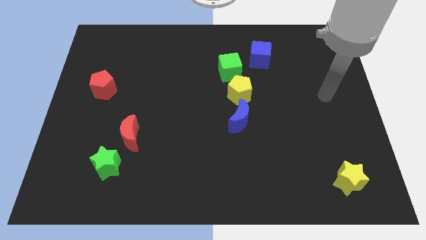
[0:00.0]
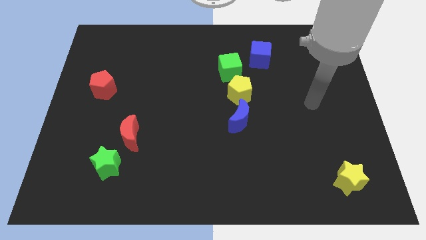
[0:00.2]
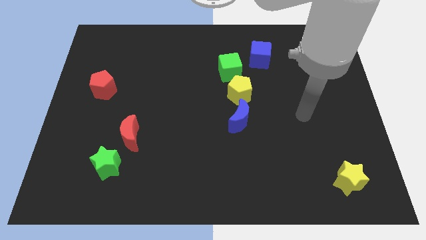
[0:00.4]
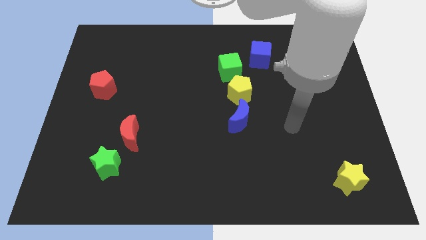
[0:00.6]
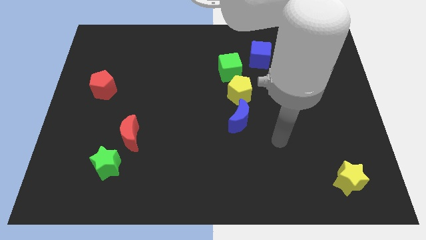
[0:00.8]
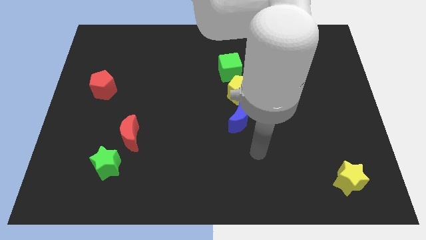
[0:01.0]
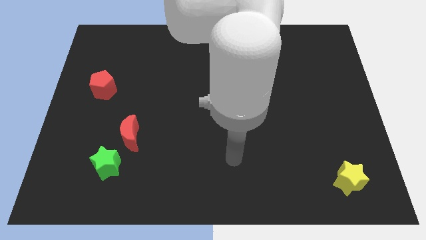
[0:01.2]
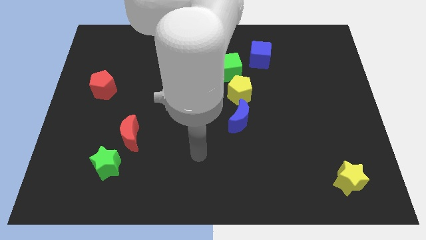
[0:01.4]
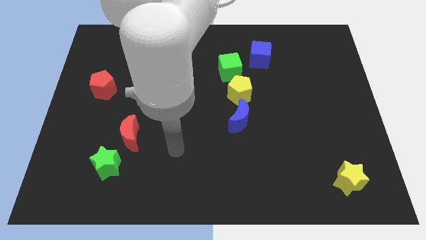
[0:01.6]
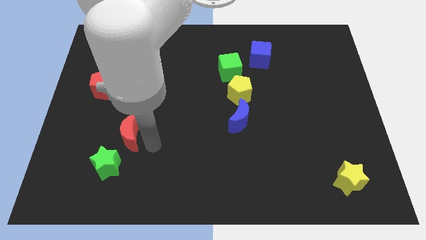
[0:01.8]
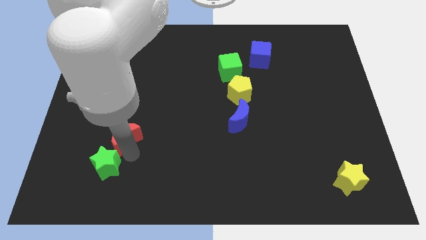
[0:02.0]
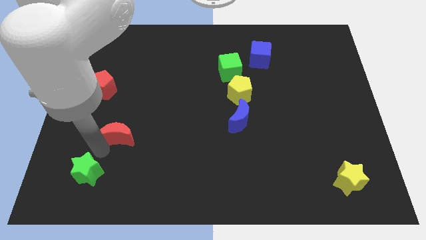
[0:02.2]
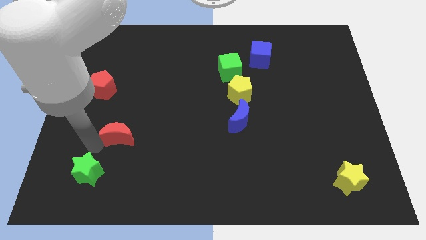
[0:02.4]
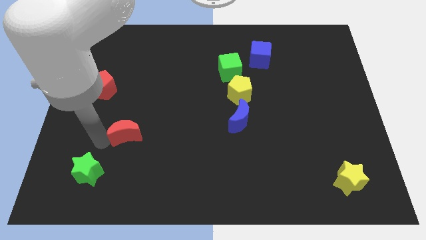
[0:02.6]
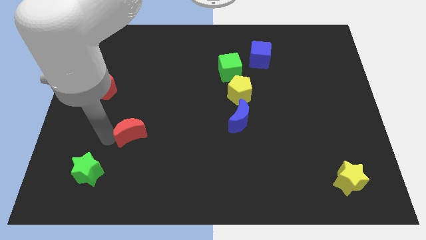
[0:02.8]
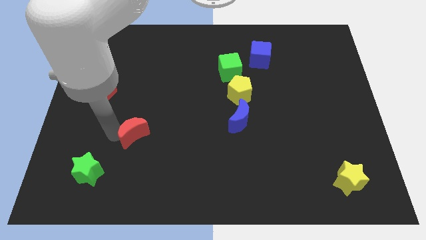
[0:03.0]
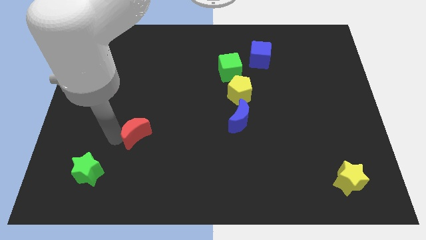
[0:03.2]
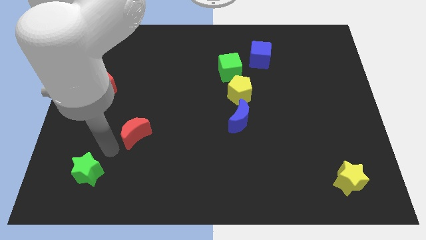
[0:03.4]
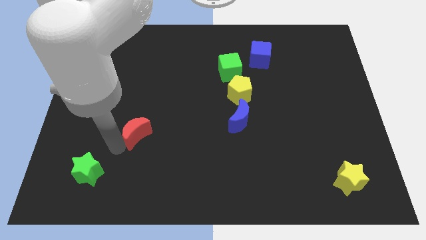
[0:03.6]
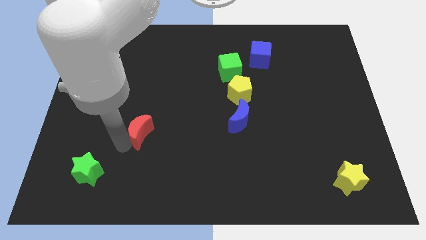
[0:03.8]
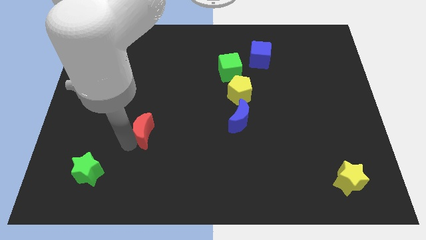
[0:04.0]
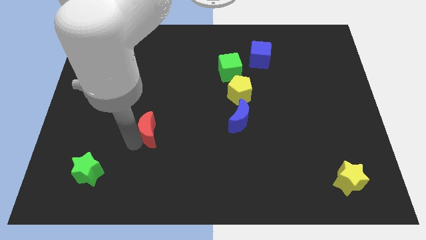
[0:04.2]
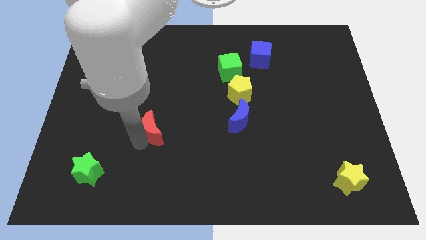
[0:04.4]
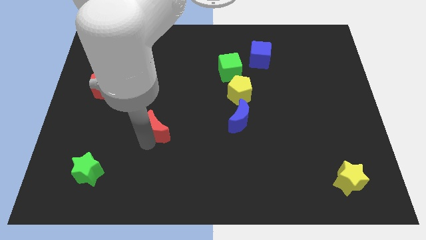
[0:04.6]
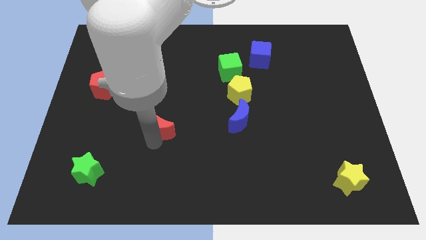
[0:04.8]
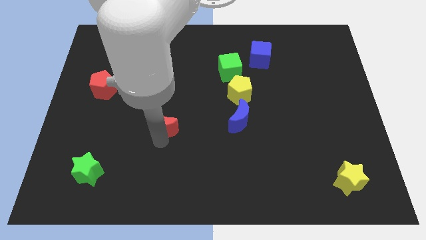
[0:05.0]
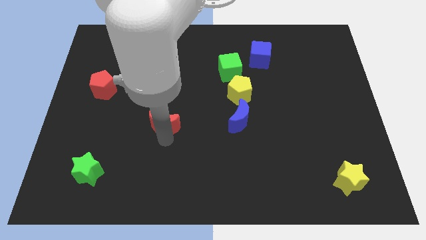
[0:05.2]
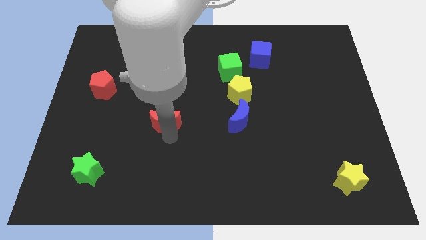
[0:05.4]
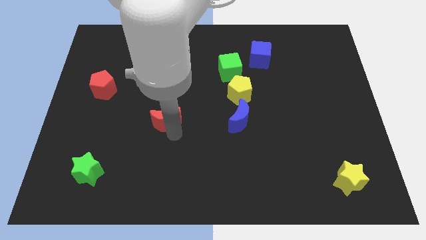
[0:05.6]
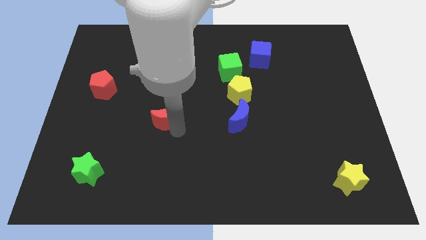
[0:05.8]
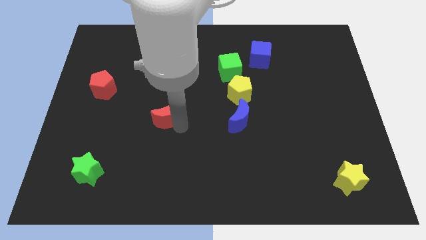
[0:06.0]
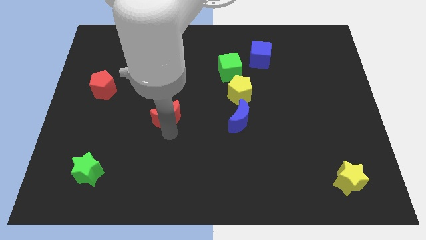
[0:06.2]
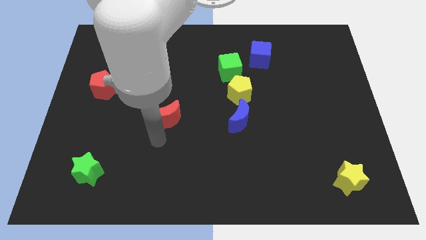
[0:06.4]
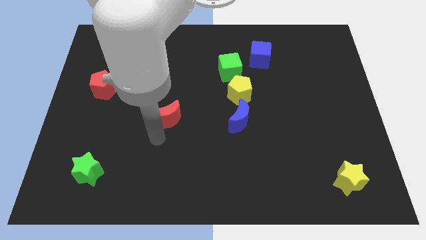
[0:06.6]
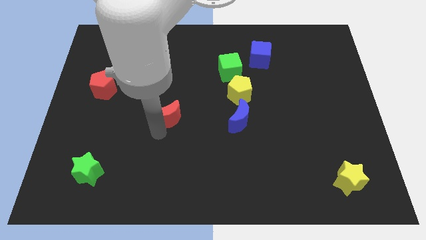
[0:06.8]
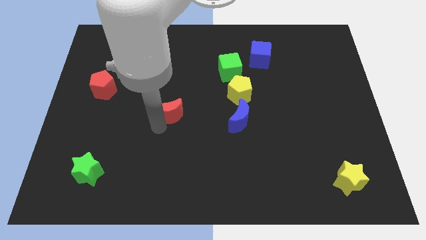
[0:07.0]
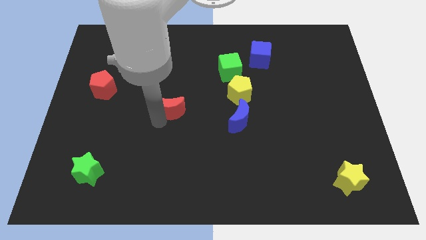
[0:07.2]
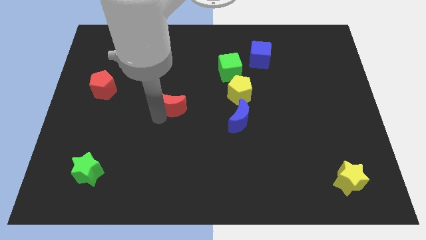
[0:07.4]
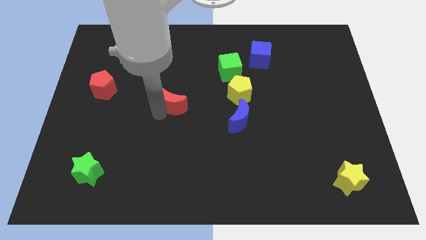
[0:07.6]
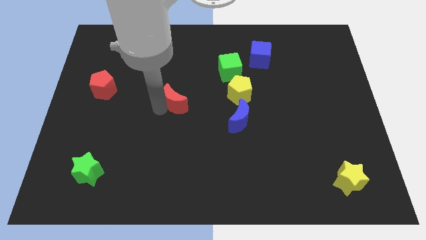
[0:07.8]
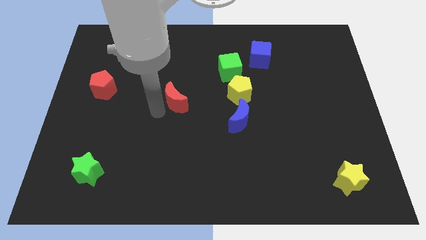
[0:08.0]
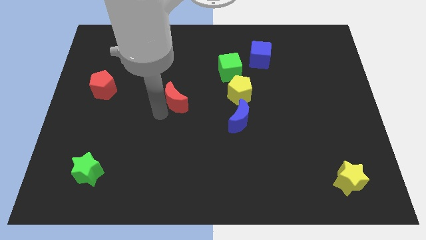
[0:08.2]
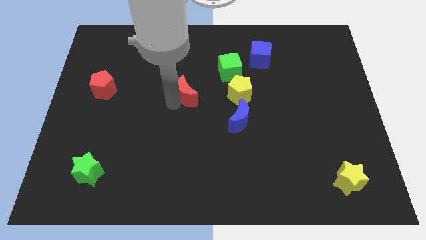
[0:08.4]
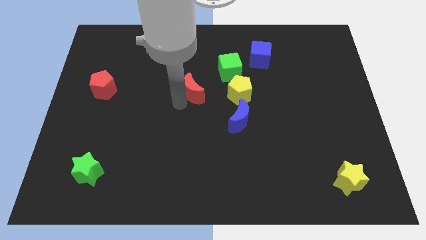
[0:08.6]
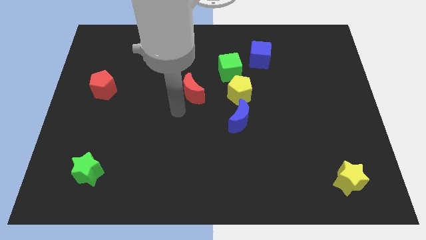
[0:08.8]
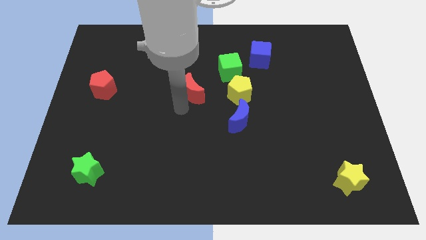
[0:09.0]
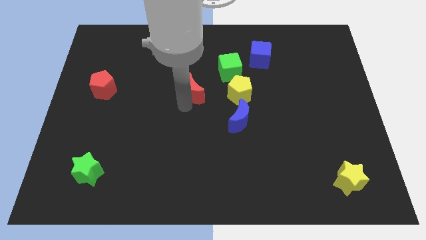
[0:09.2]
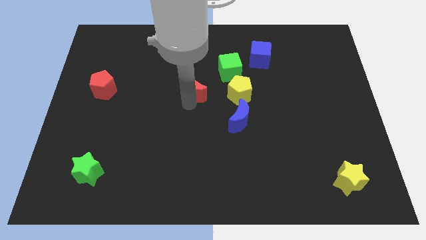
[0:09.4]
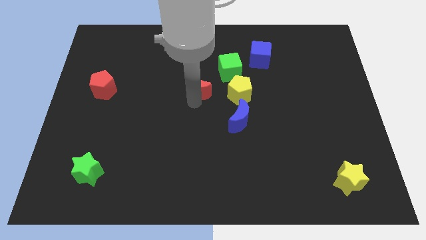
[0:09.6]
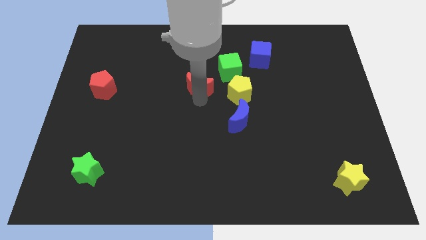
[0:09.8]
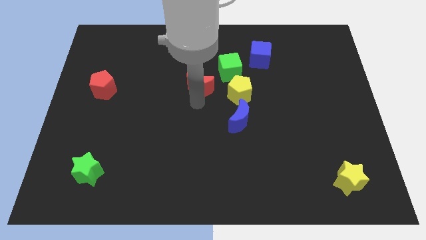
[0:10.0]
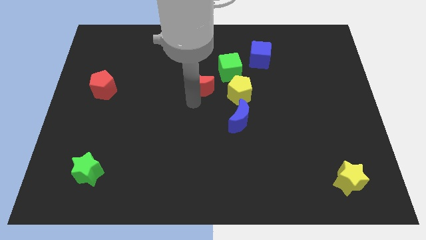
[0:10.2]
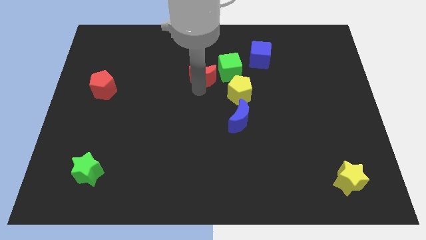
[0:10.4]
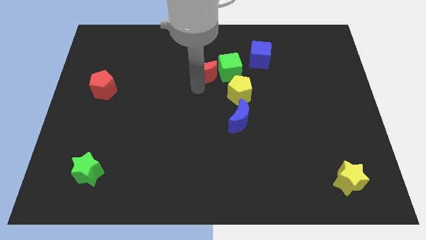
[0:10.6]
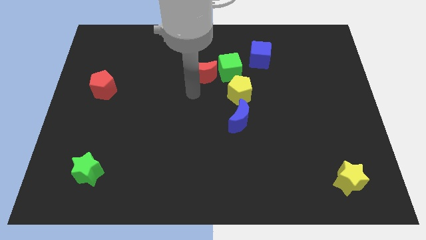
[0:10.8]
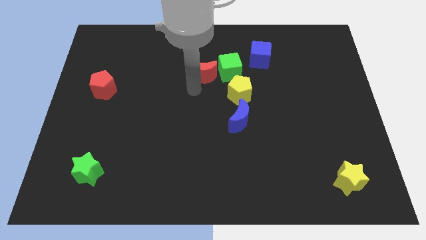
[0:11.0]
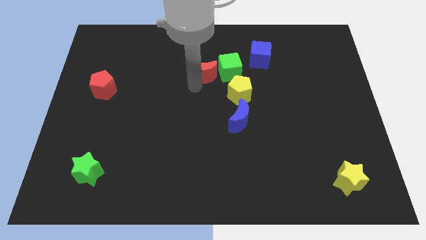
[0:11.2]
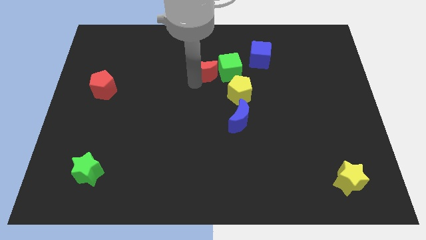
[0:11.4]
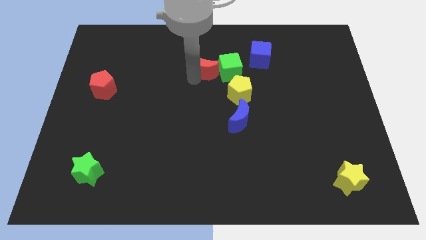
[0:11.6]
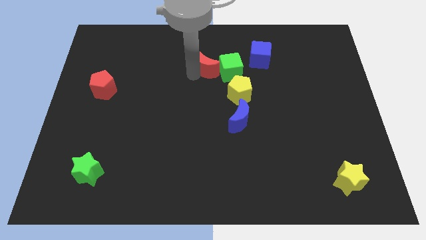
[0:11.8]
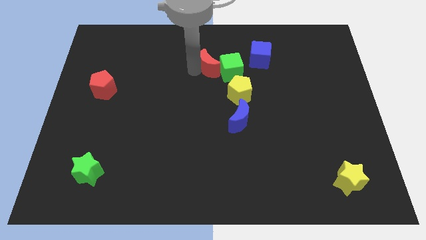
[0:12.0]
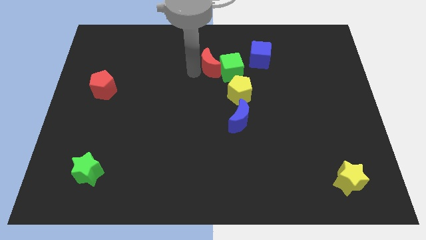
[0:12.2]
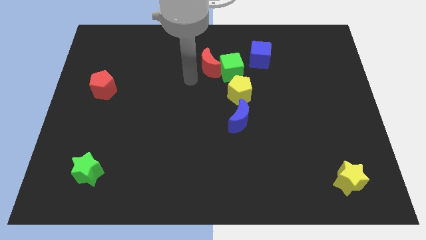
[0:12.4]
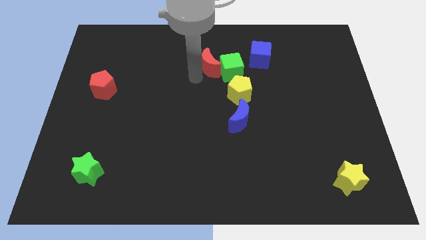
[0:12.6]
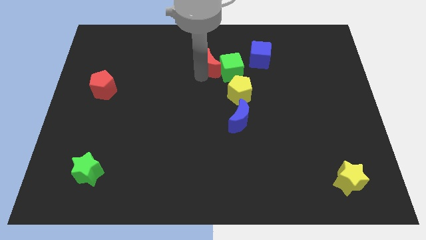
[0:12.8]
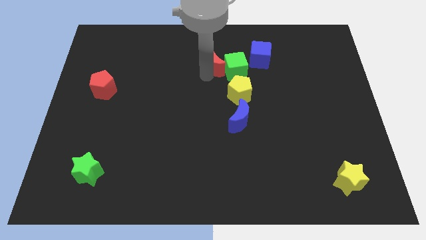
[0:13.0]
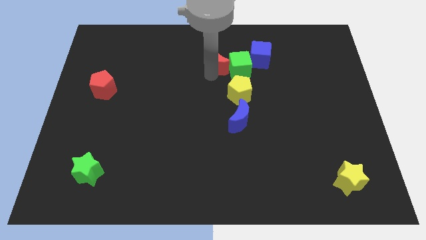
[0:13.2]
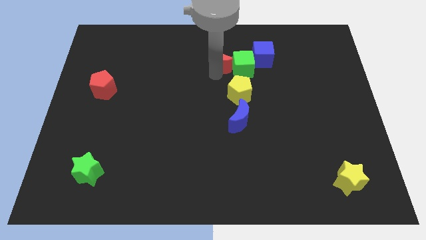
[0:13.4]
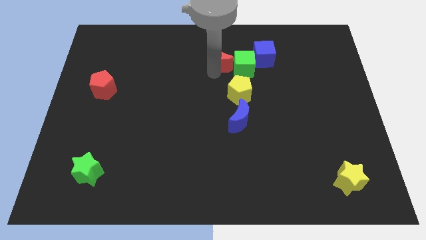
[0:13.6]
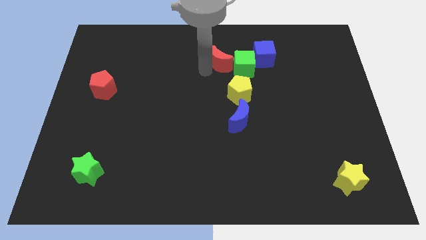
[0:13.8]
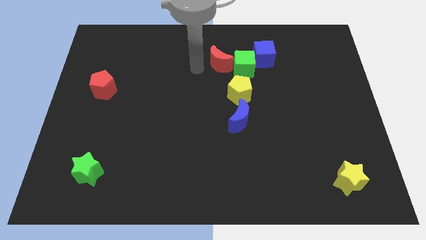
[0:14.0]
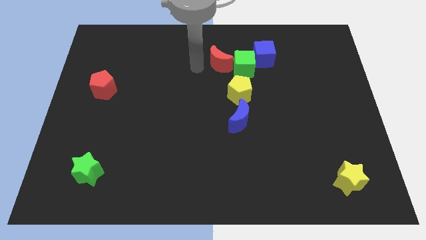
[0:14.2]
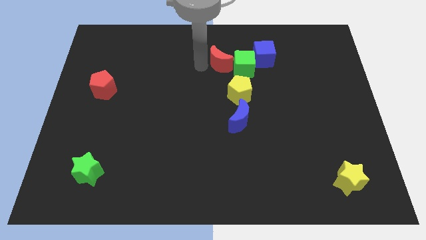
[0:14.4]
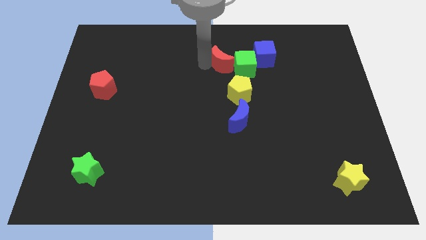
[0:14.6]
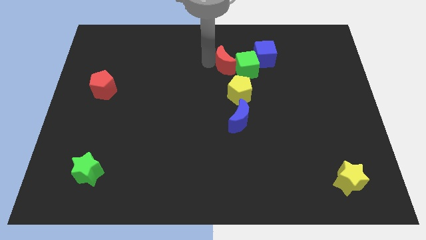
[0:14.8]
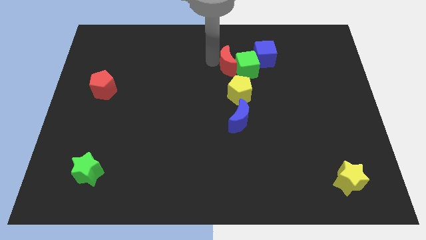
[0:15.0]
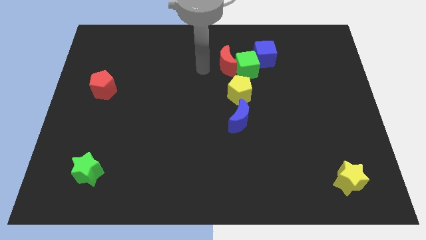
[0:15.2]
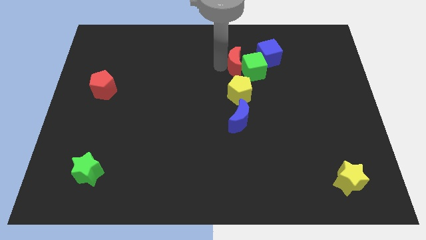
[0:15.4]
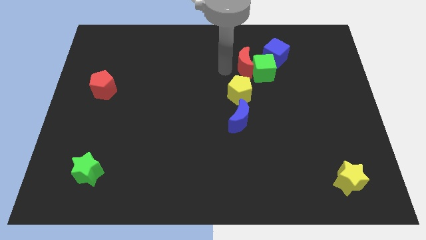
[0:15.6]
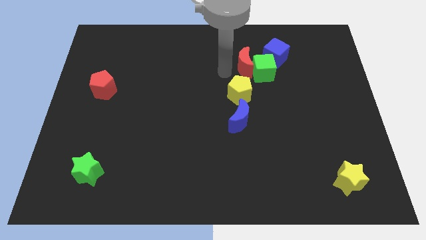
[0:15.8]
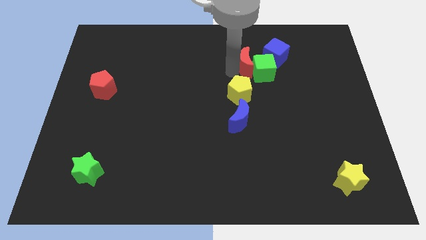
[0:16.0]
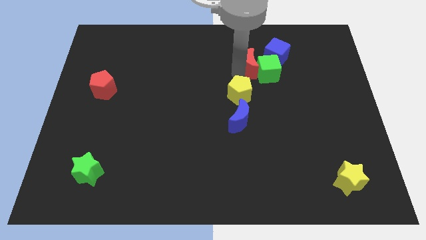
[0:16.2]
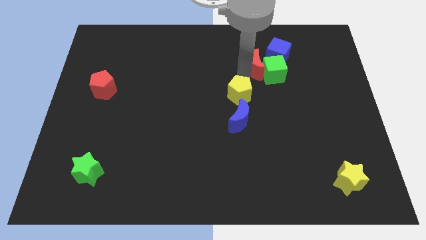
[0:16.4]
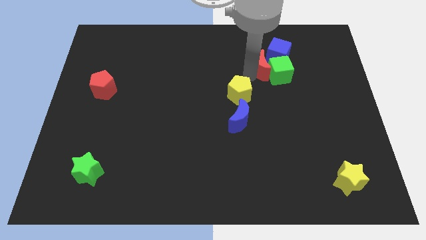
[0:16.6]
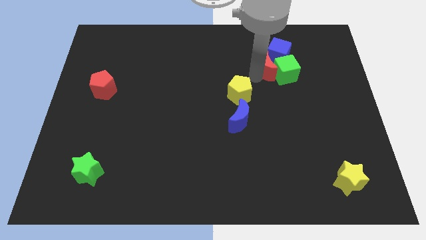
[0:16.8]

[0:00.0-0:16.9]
push the red moon close to the blue cube
